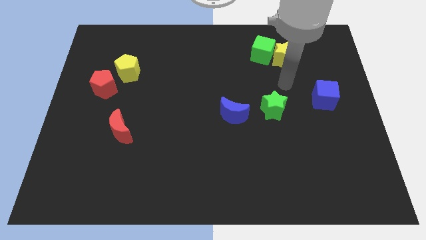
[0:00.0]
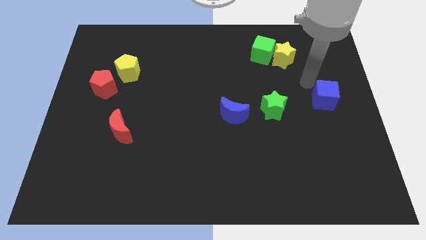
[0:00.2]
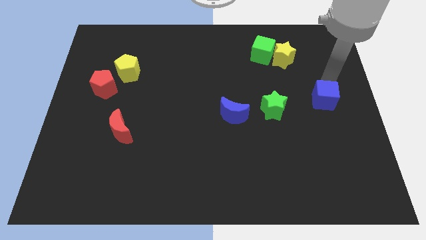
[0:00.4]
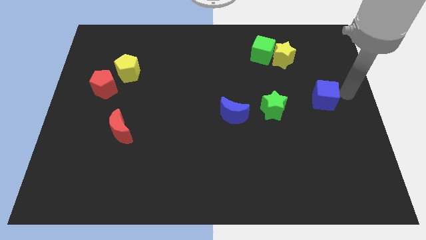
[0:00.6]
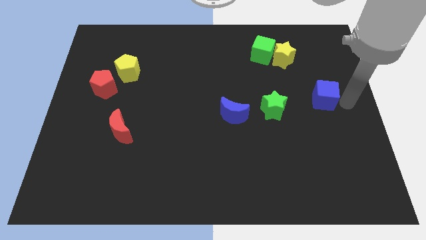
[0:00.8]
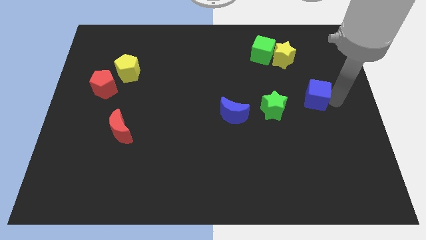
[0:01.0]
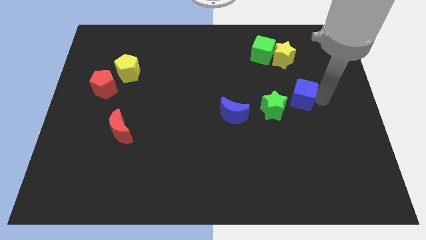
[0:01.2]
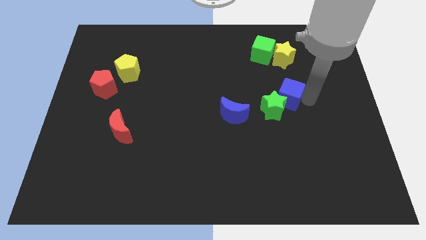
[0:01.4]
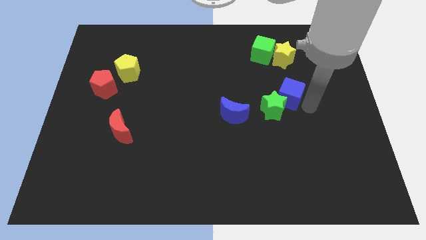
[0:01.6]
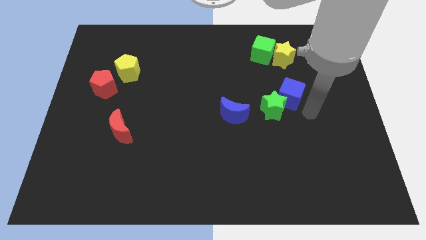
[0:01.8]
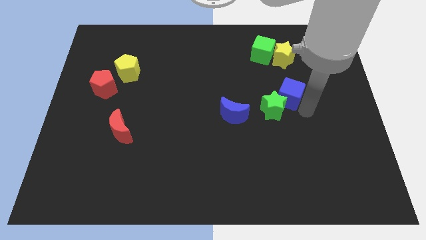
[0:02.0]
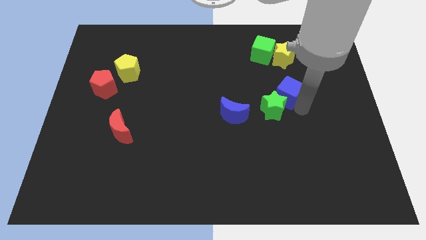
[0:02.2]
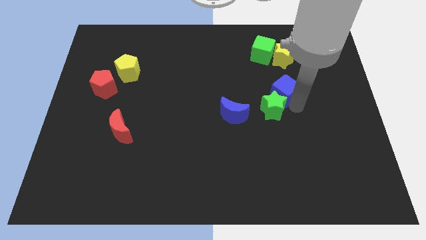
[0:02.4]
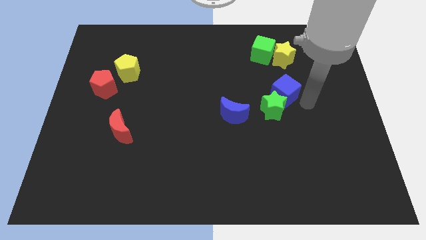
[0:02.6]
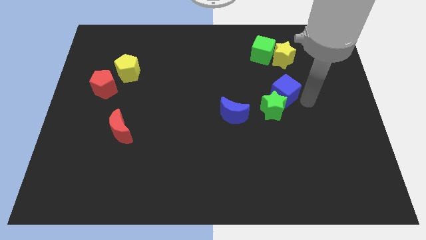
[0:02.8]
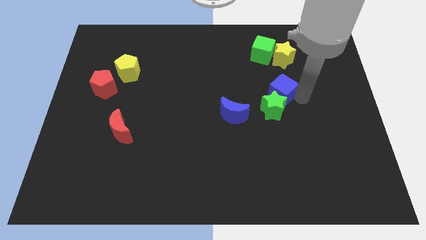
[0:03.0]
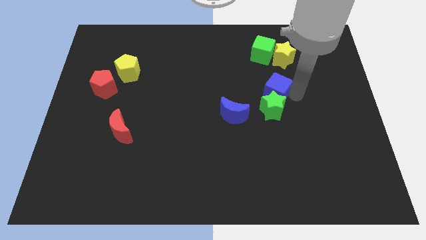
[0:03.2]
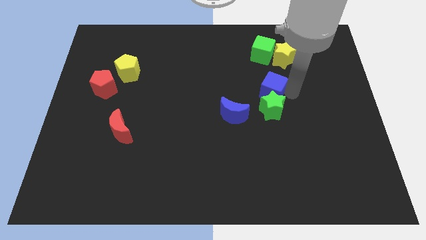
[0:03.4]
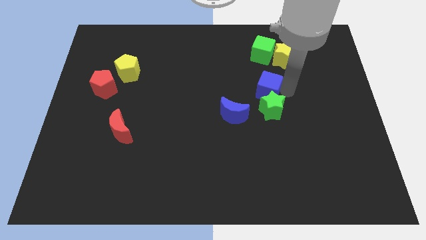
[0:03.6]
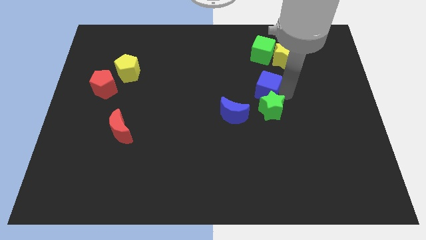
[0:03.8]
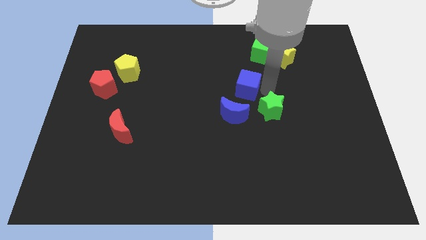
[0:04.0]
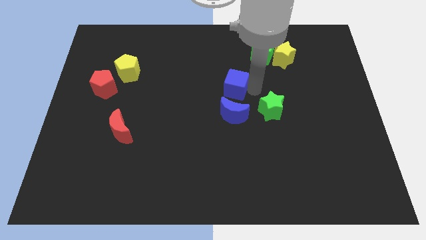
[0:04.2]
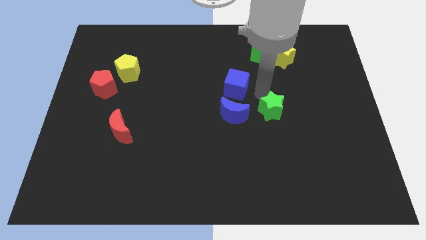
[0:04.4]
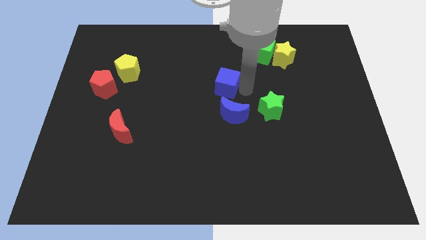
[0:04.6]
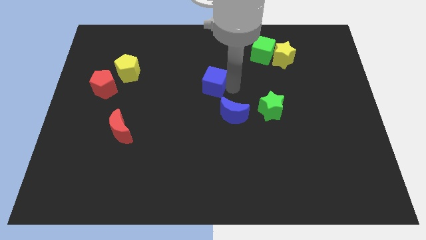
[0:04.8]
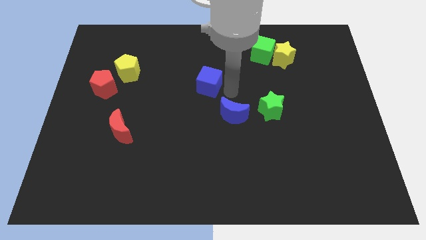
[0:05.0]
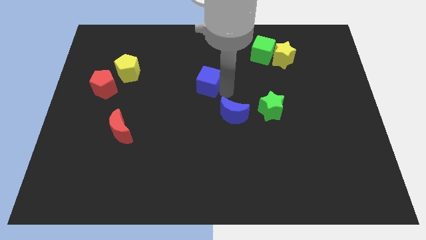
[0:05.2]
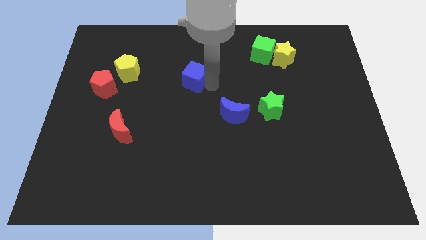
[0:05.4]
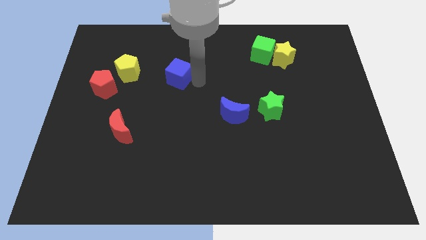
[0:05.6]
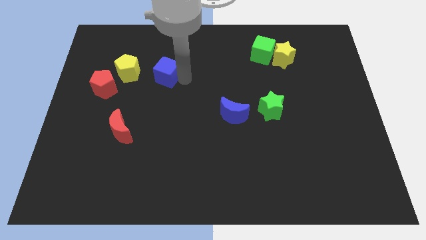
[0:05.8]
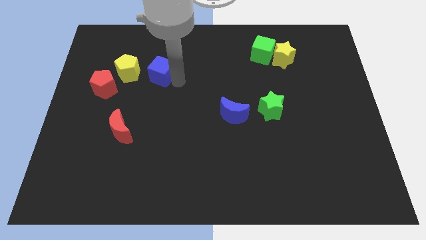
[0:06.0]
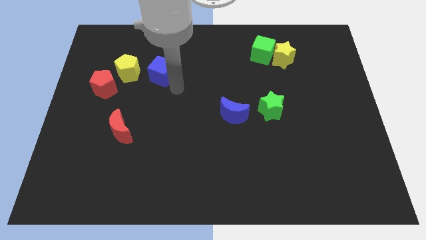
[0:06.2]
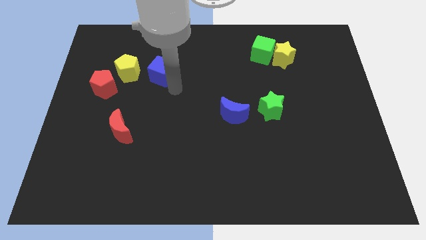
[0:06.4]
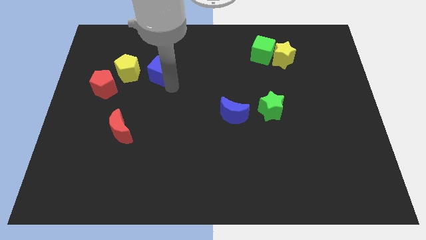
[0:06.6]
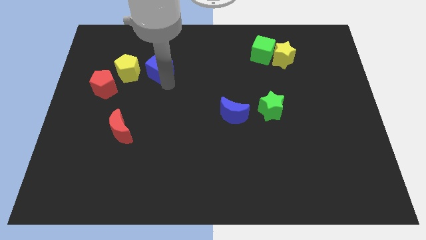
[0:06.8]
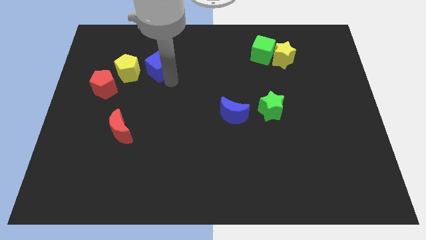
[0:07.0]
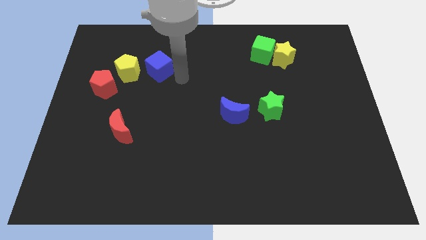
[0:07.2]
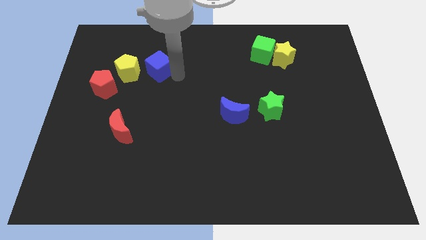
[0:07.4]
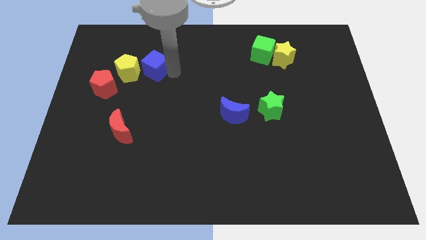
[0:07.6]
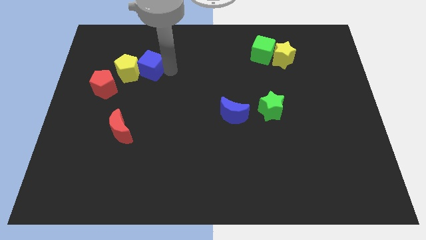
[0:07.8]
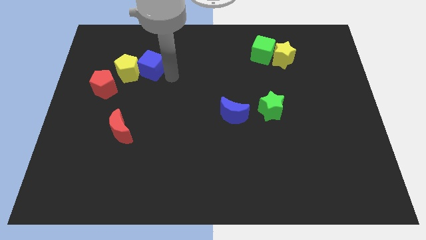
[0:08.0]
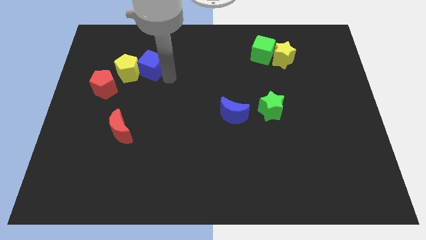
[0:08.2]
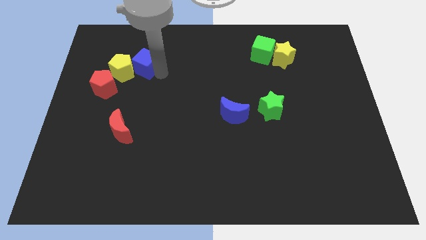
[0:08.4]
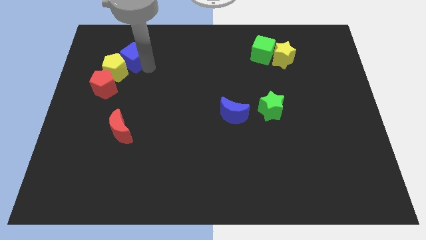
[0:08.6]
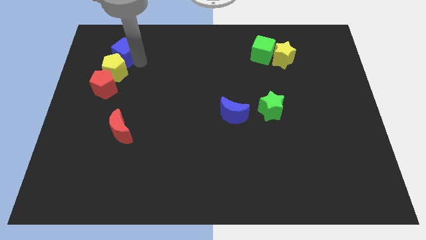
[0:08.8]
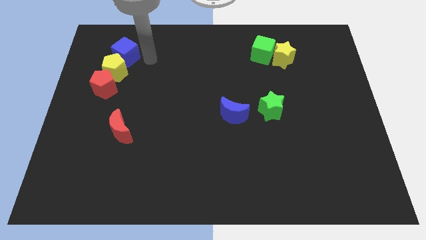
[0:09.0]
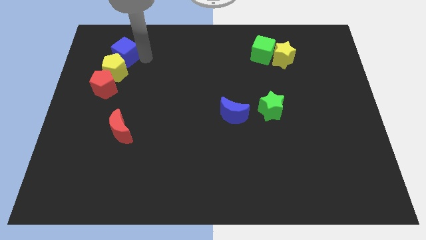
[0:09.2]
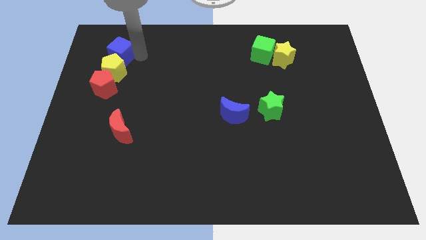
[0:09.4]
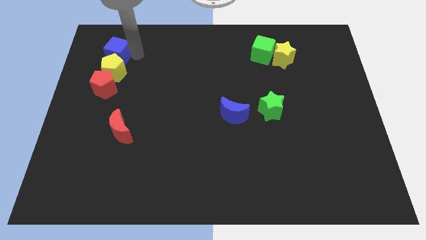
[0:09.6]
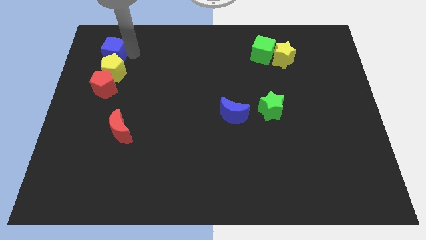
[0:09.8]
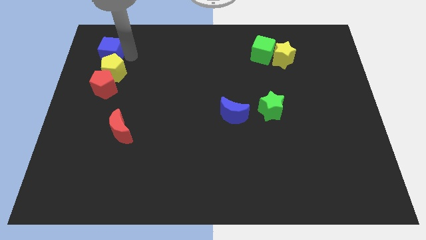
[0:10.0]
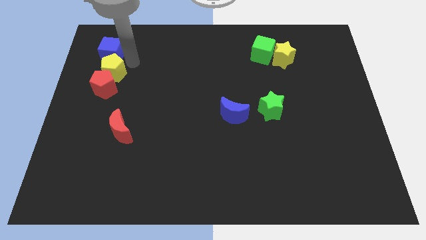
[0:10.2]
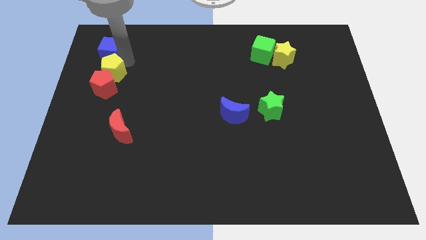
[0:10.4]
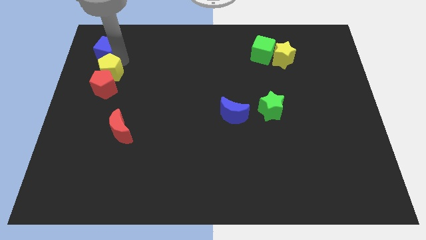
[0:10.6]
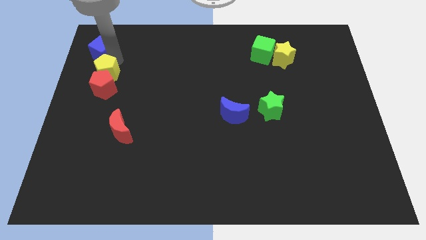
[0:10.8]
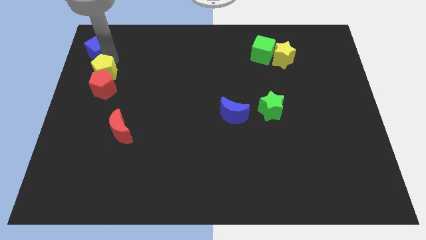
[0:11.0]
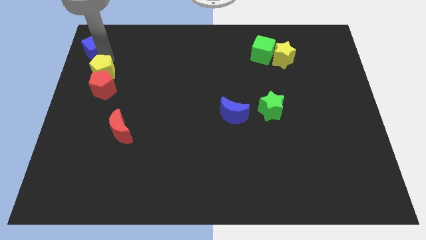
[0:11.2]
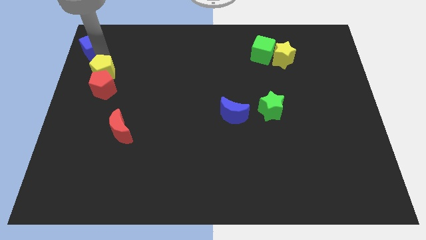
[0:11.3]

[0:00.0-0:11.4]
push the blue cube to the top left corner

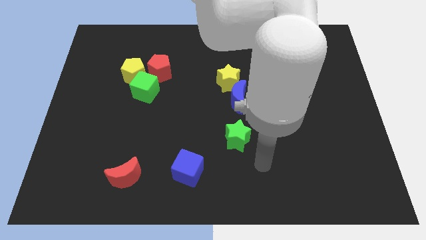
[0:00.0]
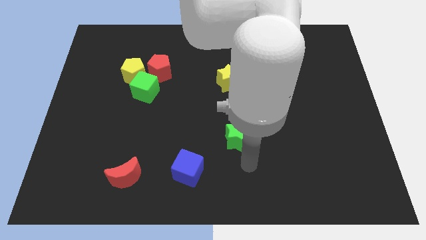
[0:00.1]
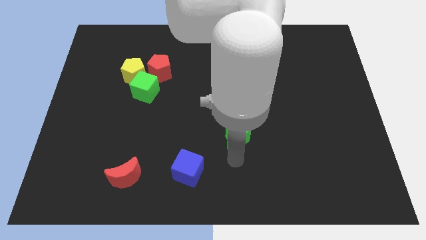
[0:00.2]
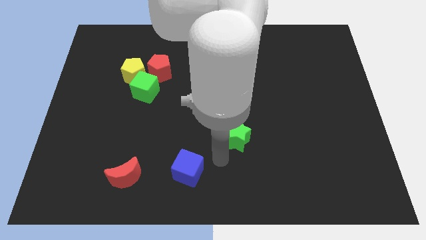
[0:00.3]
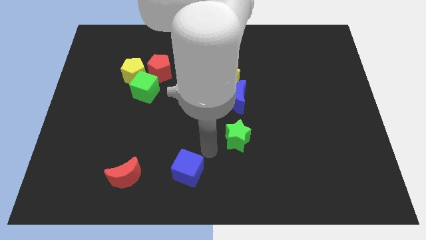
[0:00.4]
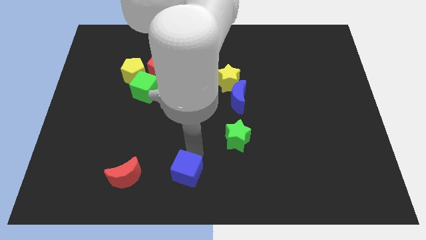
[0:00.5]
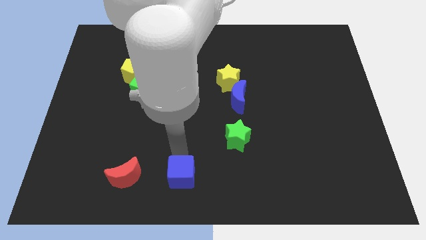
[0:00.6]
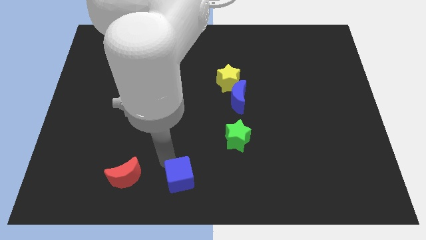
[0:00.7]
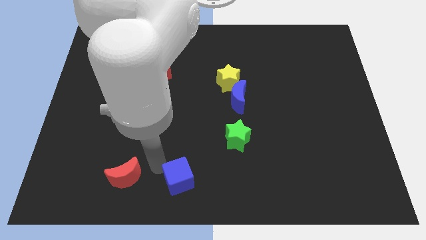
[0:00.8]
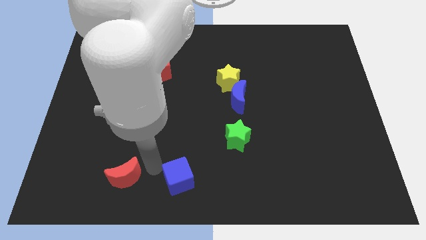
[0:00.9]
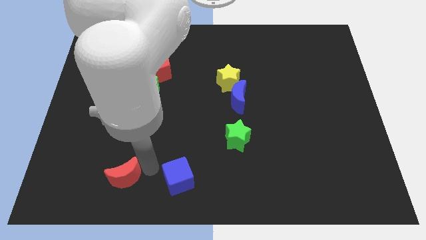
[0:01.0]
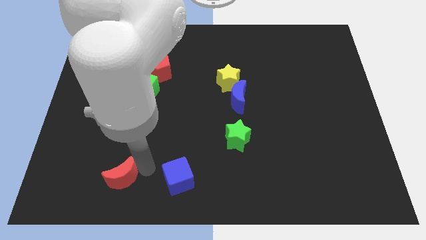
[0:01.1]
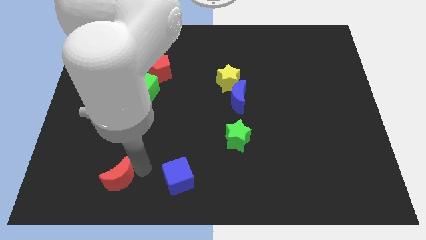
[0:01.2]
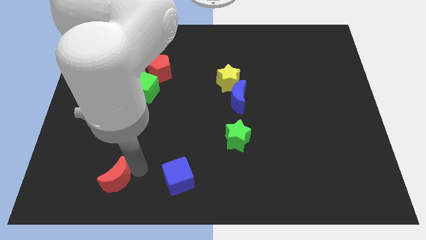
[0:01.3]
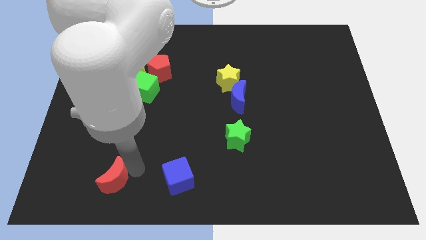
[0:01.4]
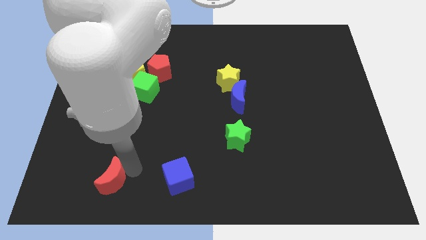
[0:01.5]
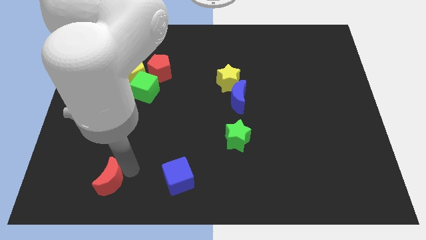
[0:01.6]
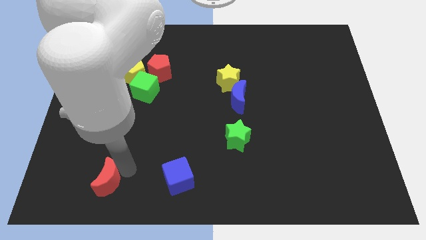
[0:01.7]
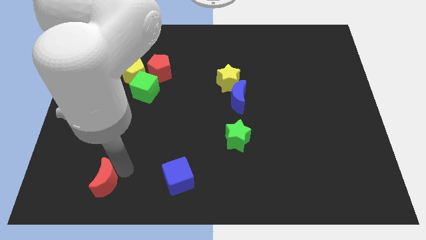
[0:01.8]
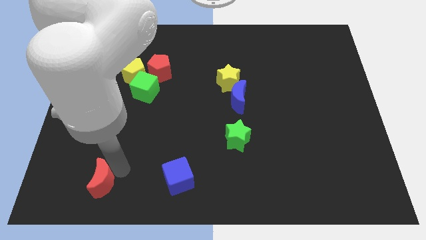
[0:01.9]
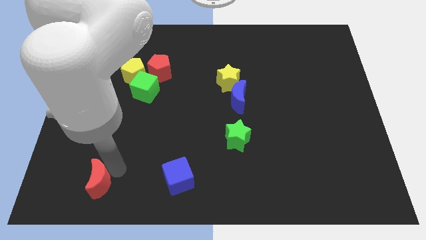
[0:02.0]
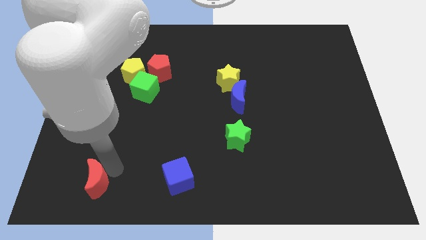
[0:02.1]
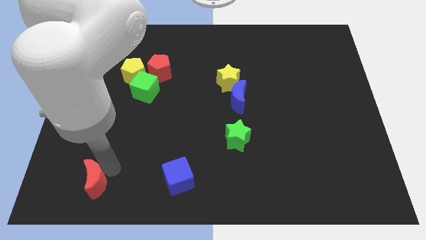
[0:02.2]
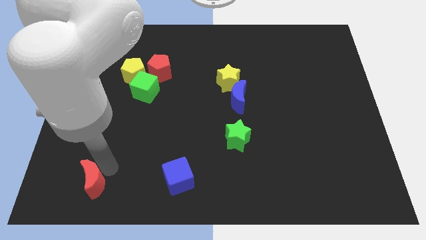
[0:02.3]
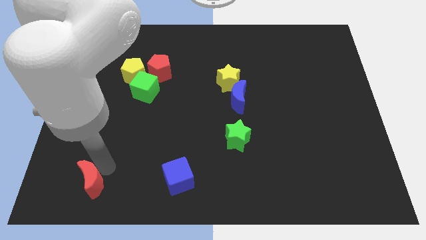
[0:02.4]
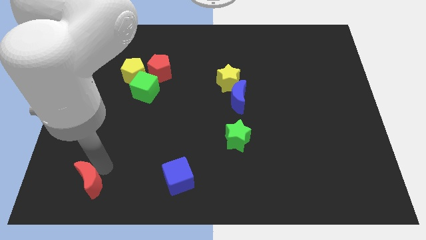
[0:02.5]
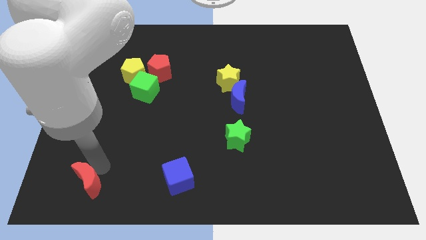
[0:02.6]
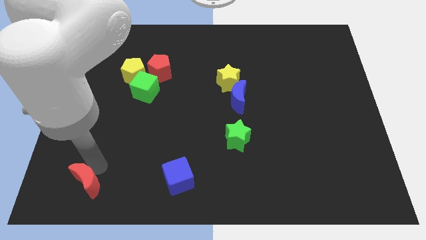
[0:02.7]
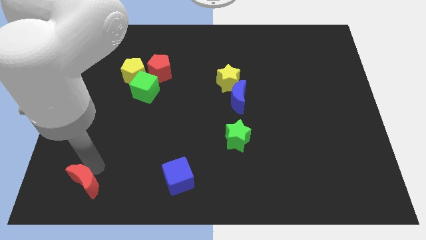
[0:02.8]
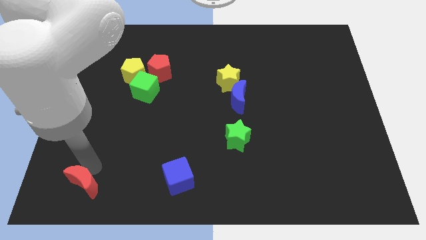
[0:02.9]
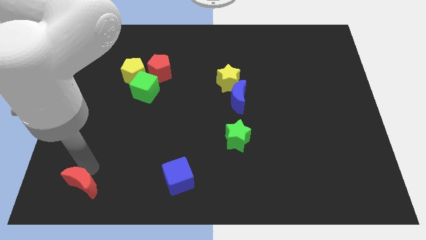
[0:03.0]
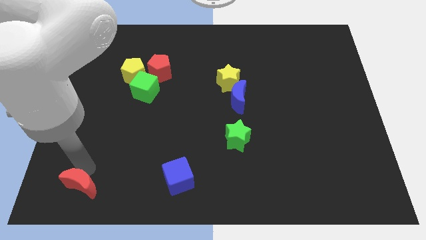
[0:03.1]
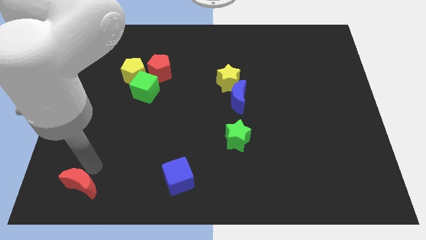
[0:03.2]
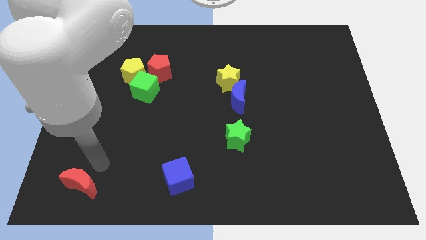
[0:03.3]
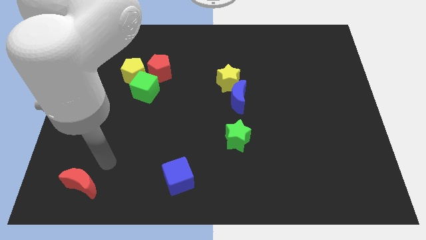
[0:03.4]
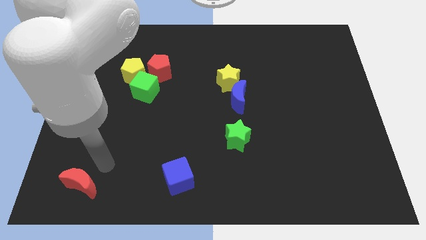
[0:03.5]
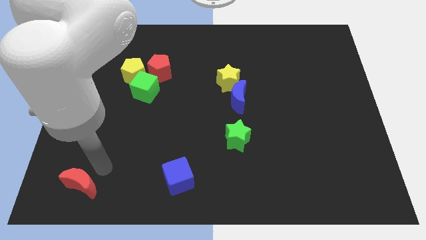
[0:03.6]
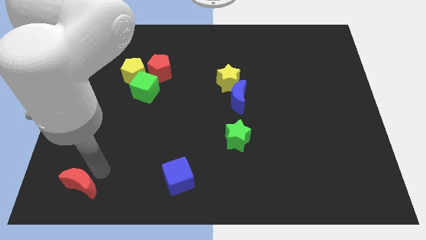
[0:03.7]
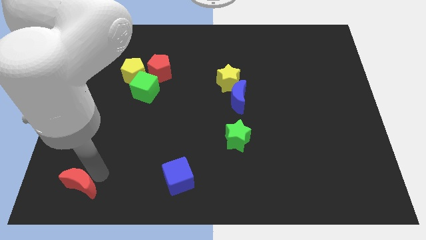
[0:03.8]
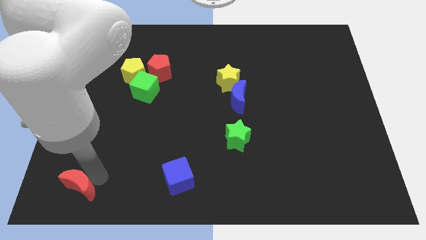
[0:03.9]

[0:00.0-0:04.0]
push the red moon to the bottom left
